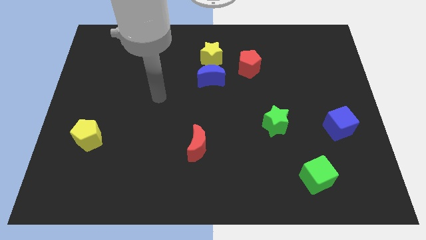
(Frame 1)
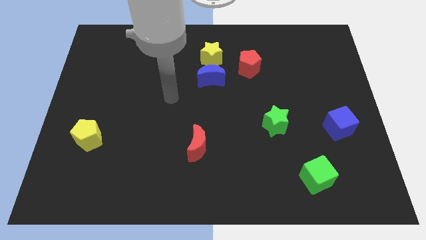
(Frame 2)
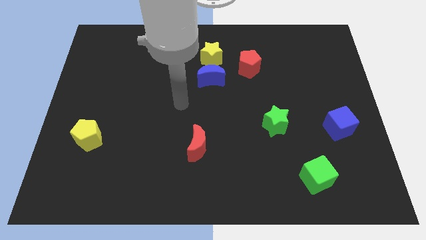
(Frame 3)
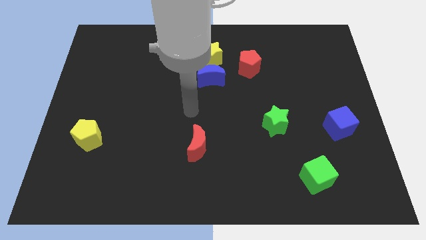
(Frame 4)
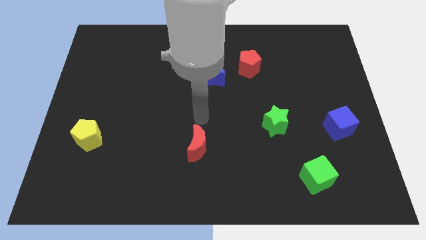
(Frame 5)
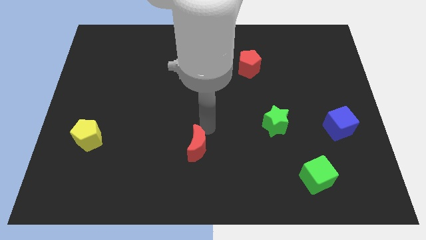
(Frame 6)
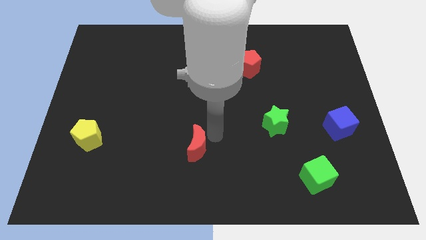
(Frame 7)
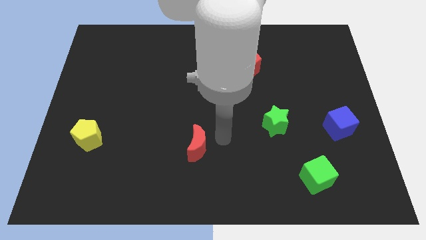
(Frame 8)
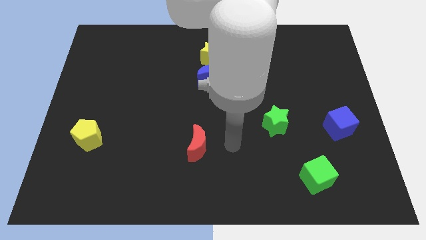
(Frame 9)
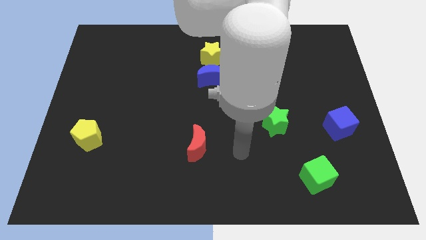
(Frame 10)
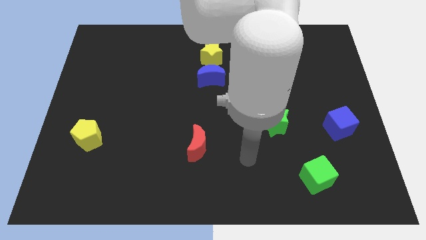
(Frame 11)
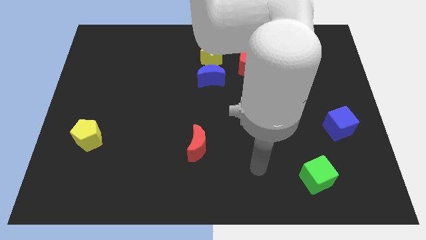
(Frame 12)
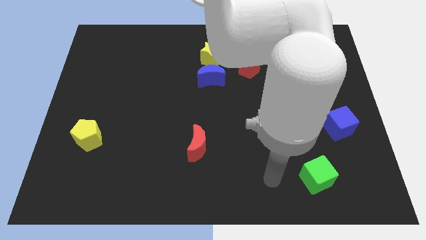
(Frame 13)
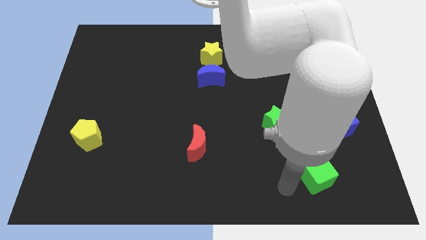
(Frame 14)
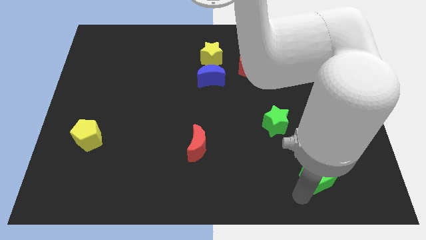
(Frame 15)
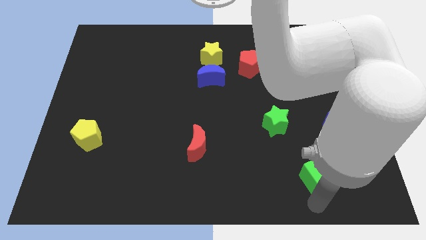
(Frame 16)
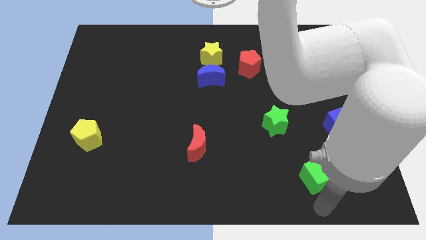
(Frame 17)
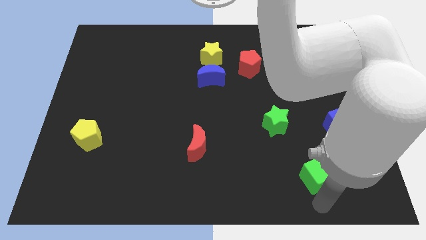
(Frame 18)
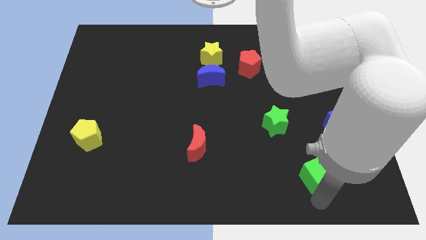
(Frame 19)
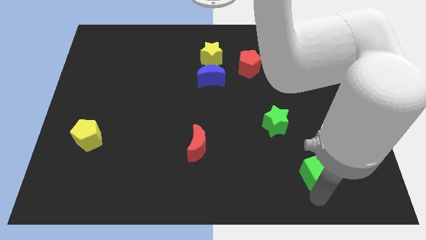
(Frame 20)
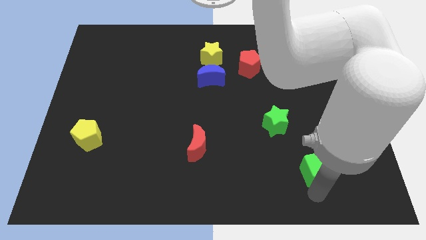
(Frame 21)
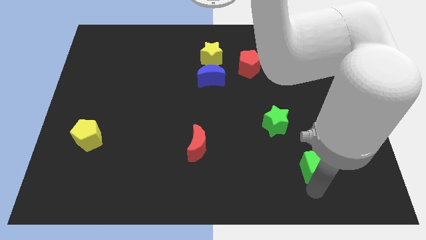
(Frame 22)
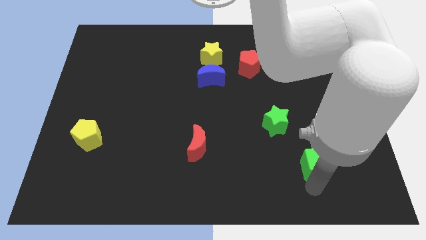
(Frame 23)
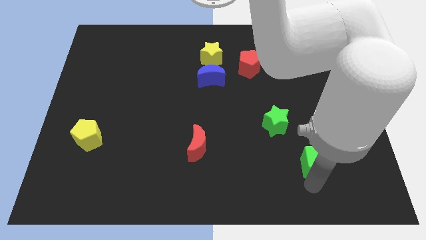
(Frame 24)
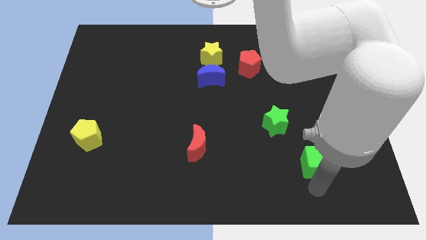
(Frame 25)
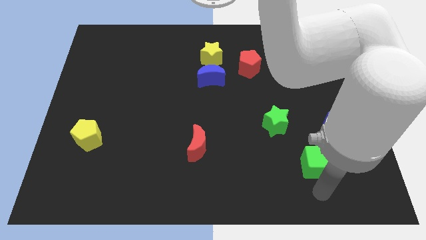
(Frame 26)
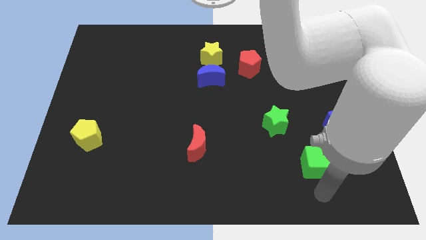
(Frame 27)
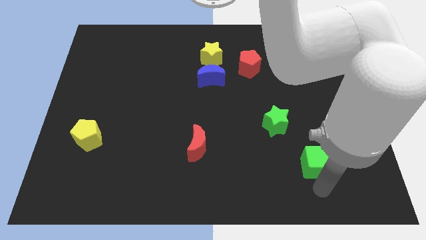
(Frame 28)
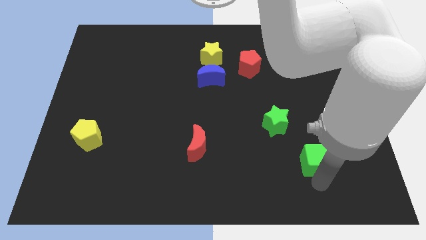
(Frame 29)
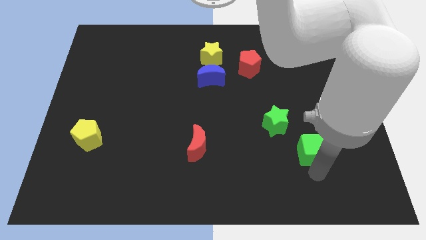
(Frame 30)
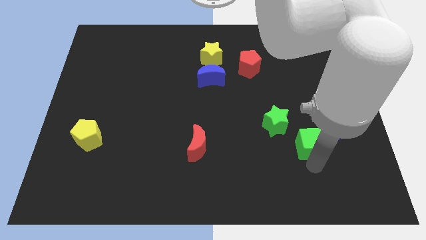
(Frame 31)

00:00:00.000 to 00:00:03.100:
slightly slide the green cube upwards

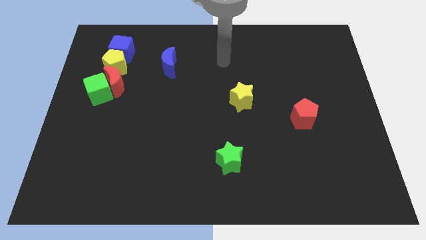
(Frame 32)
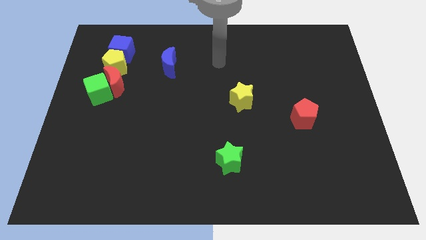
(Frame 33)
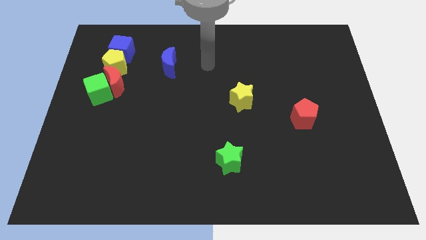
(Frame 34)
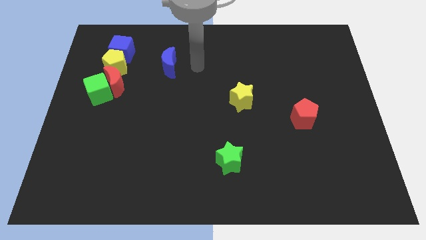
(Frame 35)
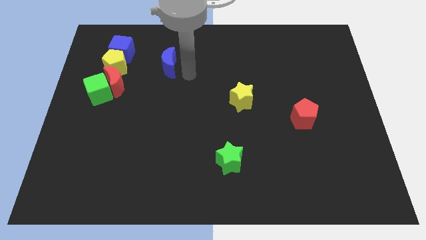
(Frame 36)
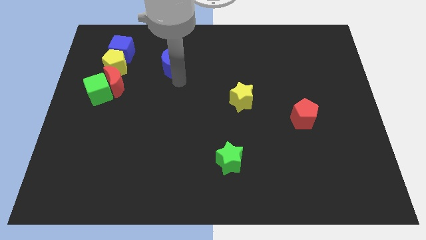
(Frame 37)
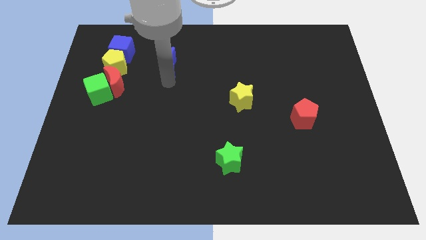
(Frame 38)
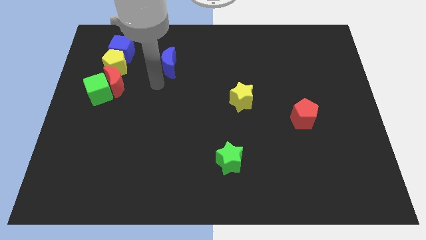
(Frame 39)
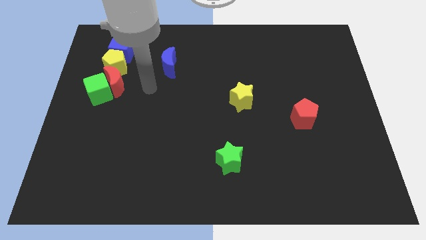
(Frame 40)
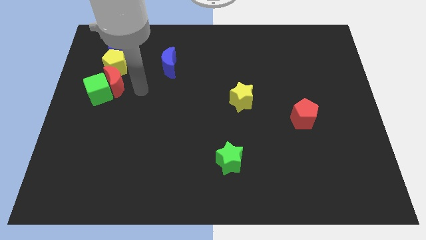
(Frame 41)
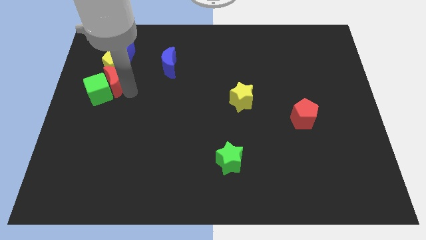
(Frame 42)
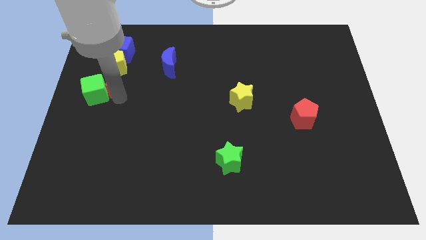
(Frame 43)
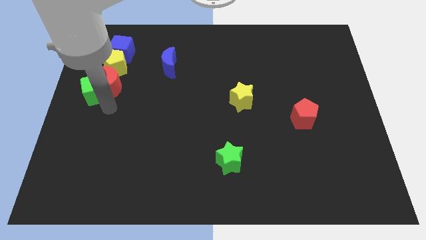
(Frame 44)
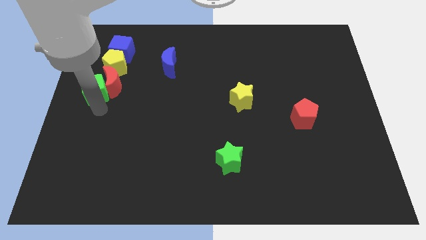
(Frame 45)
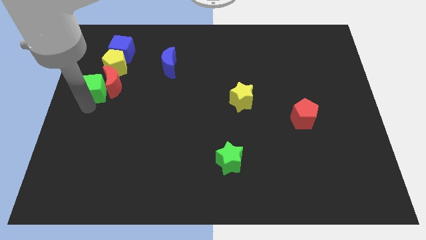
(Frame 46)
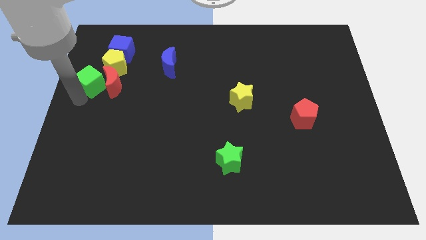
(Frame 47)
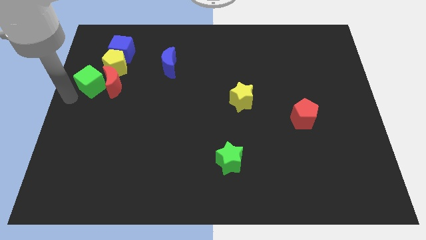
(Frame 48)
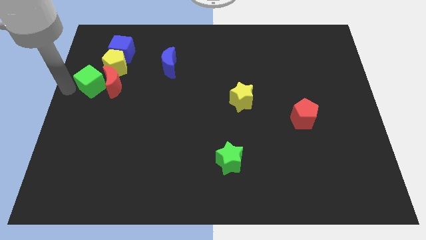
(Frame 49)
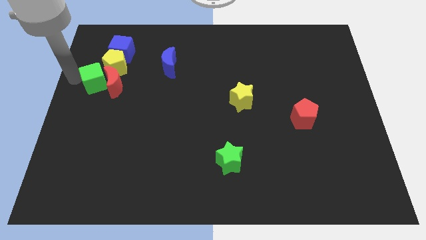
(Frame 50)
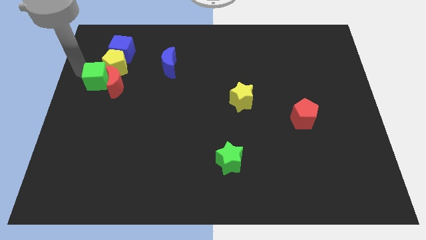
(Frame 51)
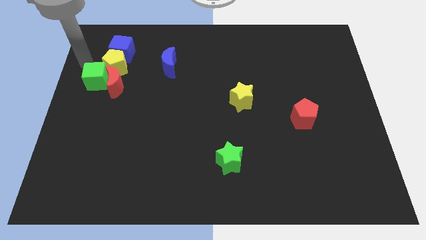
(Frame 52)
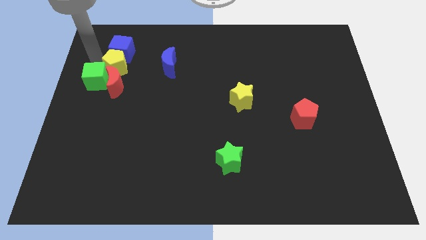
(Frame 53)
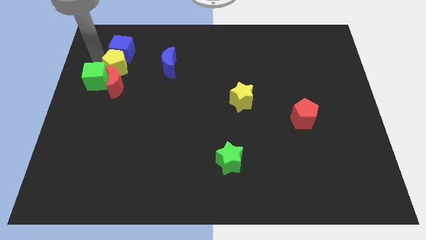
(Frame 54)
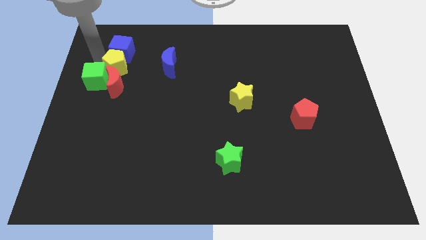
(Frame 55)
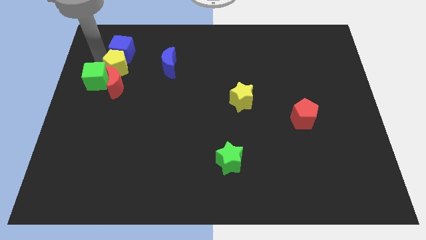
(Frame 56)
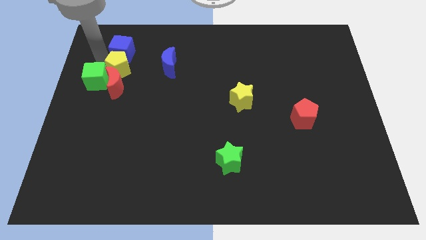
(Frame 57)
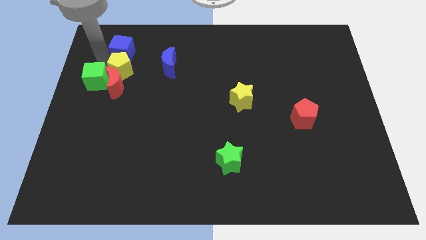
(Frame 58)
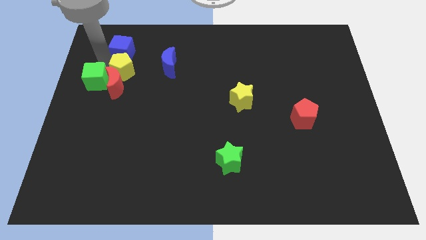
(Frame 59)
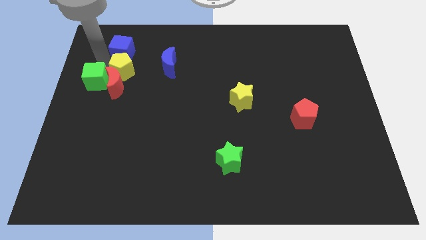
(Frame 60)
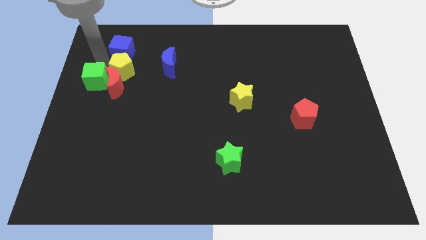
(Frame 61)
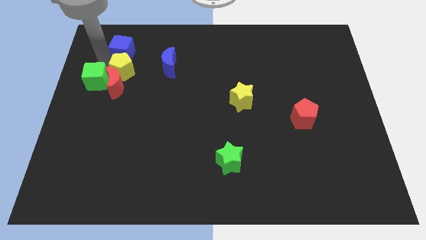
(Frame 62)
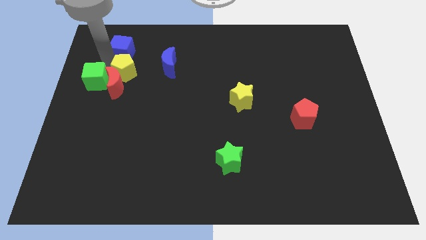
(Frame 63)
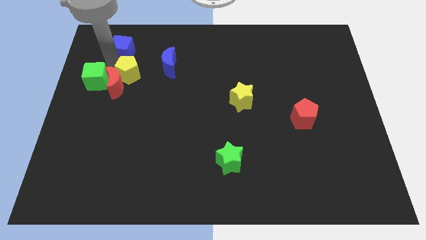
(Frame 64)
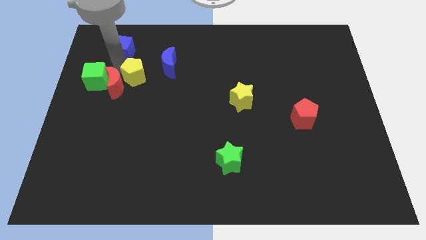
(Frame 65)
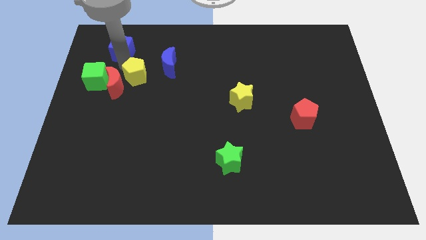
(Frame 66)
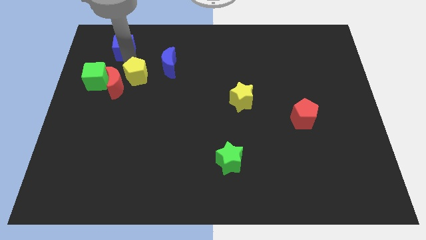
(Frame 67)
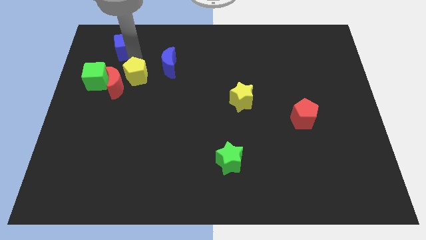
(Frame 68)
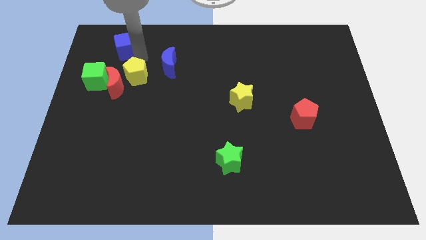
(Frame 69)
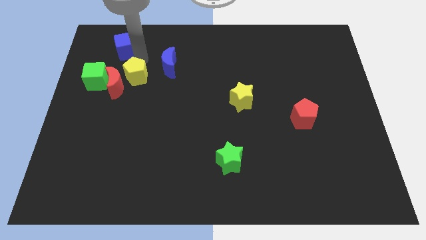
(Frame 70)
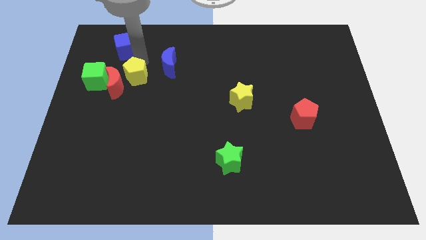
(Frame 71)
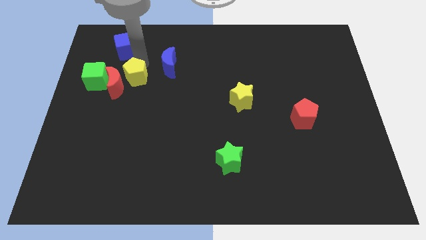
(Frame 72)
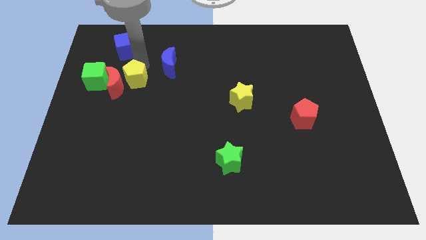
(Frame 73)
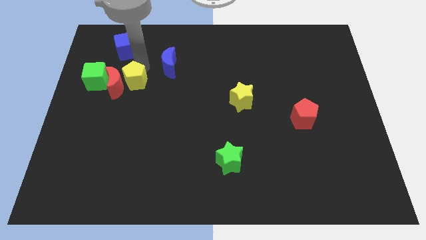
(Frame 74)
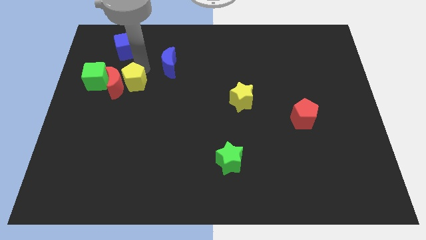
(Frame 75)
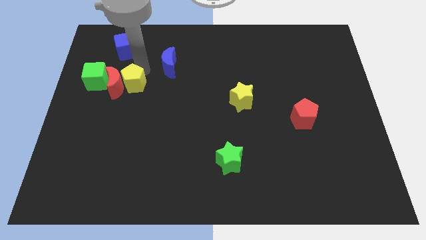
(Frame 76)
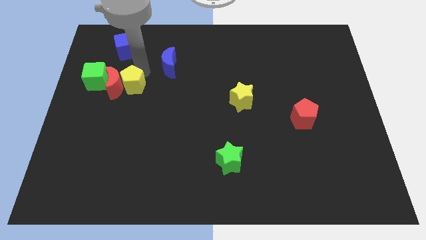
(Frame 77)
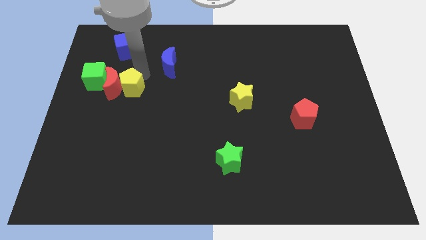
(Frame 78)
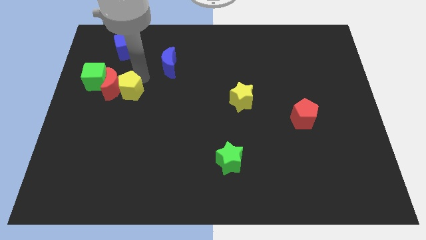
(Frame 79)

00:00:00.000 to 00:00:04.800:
push the yellow pentagon somewhat downwards
